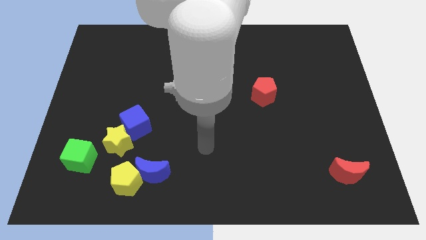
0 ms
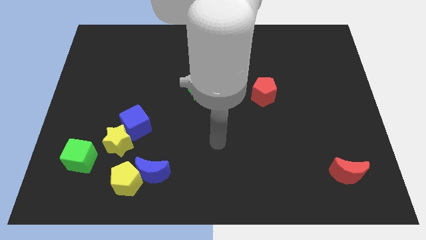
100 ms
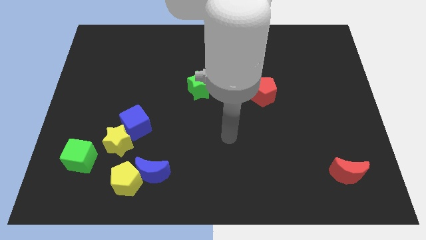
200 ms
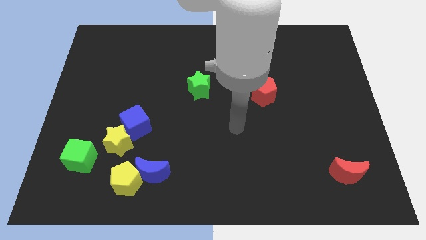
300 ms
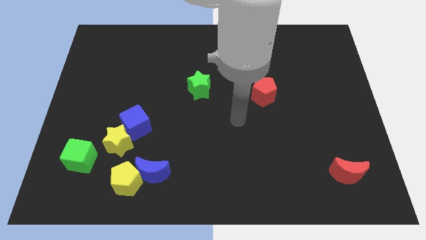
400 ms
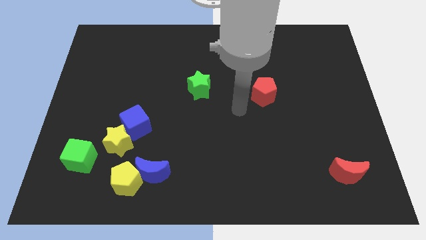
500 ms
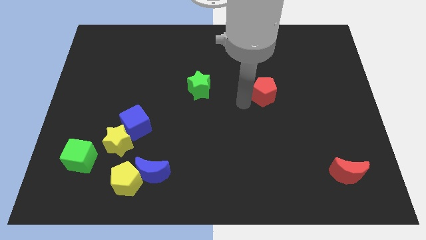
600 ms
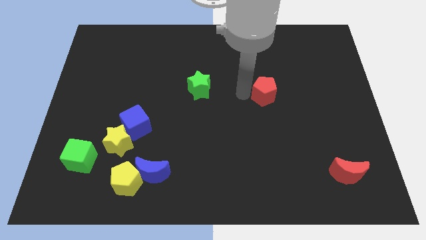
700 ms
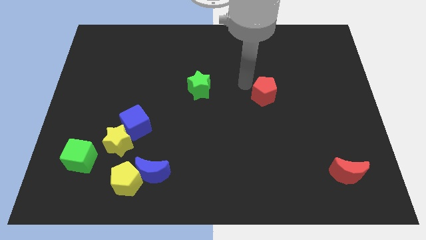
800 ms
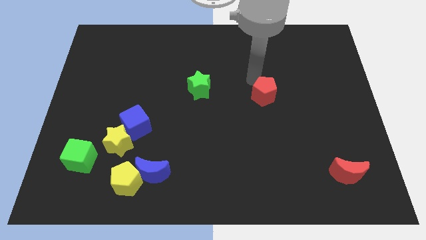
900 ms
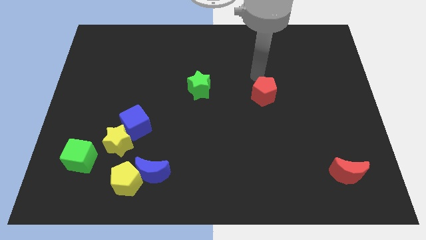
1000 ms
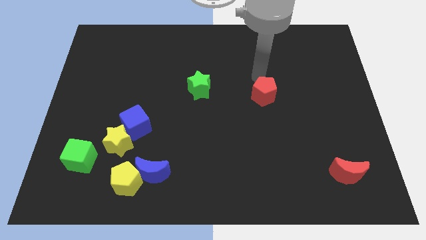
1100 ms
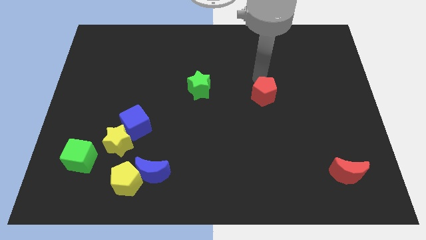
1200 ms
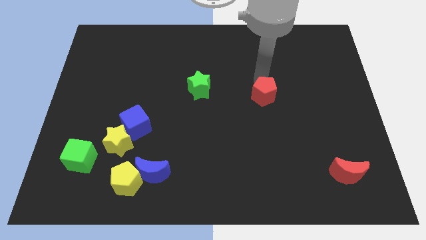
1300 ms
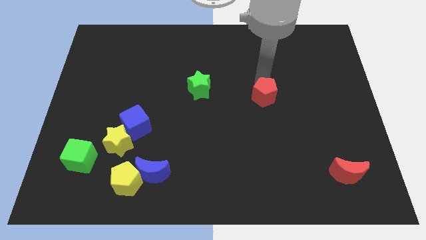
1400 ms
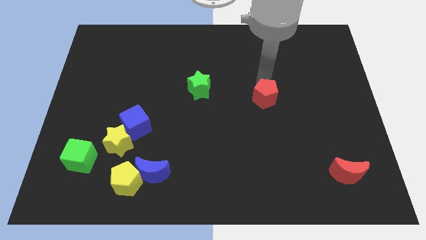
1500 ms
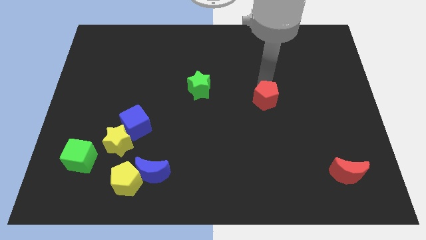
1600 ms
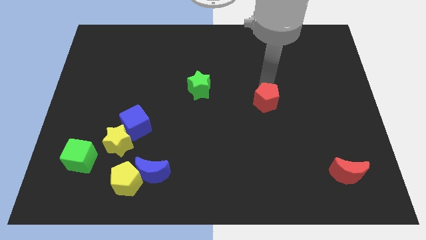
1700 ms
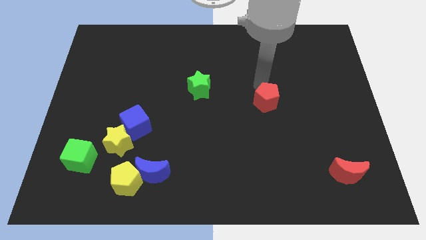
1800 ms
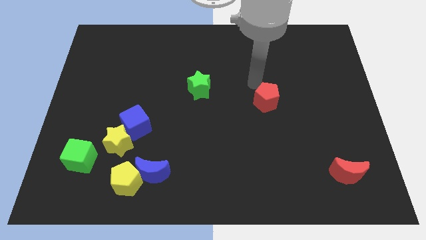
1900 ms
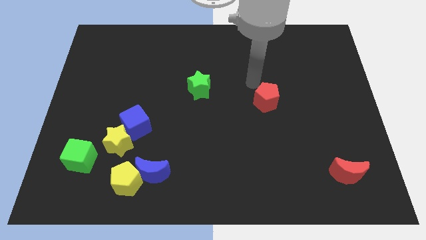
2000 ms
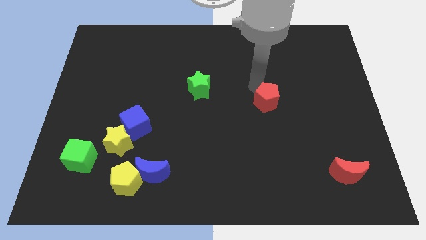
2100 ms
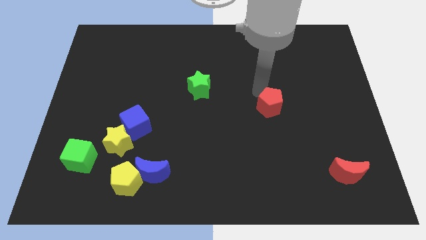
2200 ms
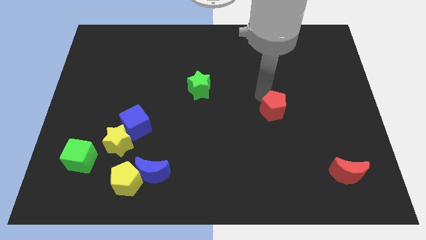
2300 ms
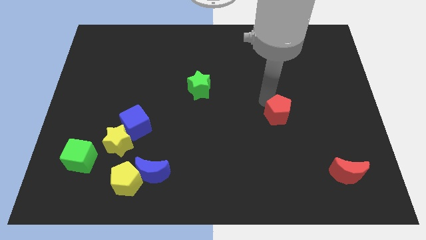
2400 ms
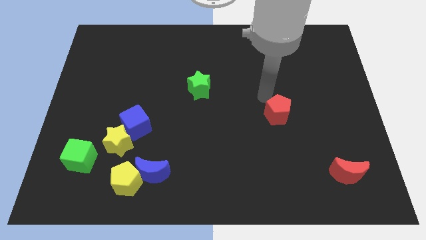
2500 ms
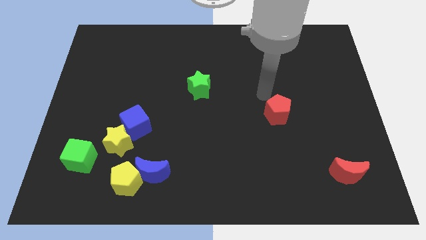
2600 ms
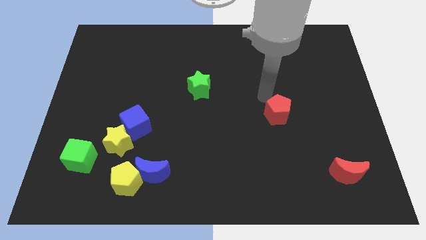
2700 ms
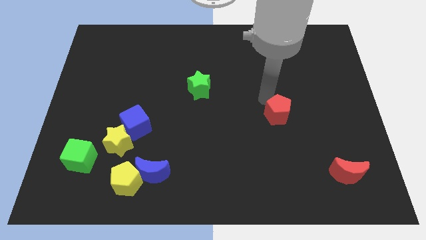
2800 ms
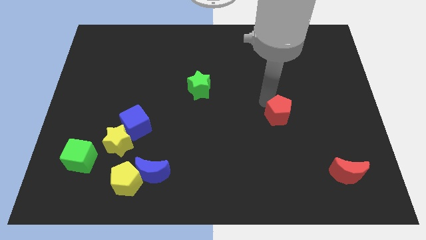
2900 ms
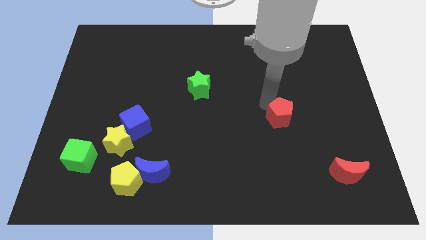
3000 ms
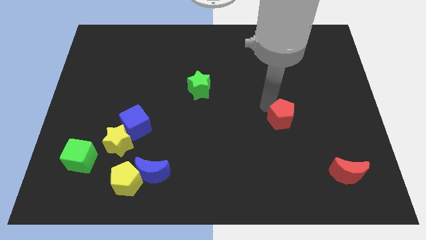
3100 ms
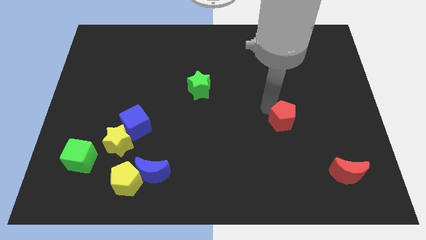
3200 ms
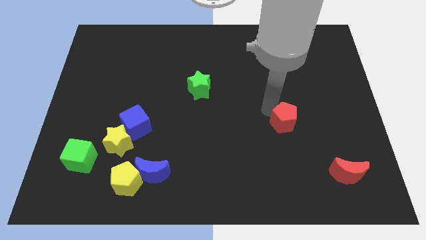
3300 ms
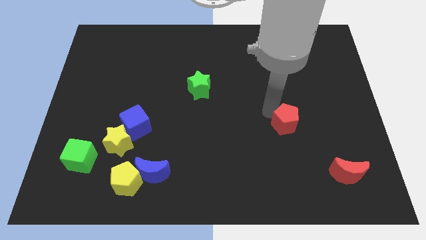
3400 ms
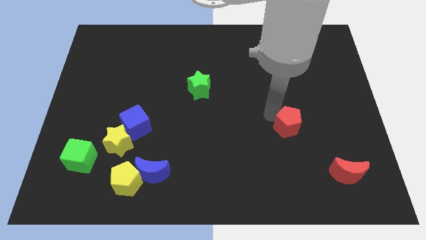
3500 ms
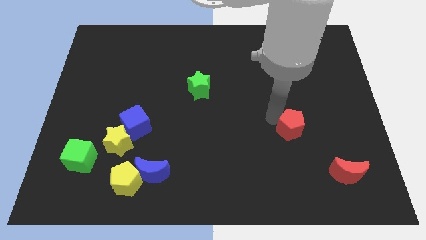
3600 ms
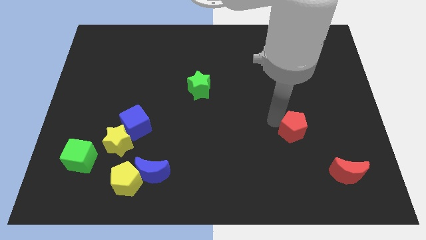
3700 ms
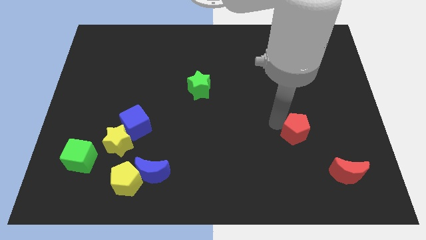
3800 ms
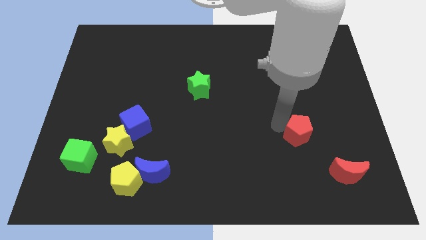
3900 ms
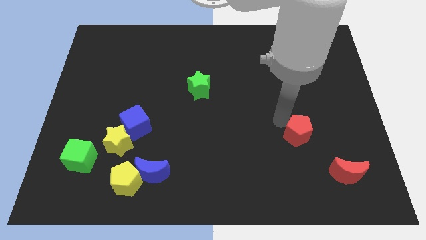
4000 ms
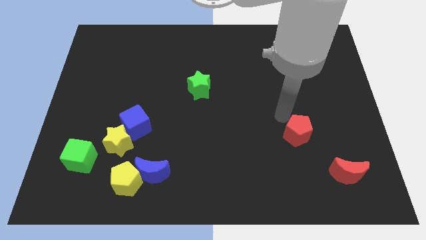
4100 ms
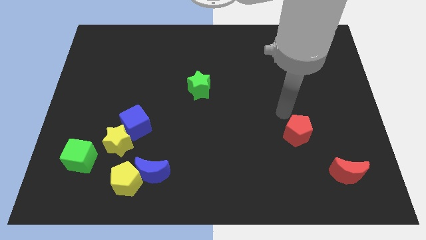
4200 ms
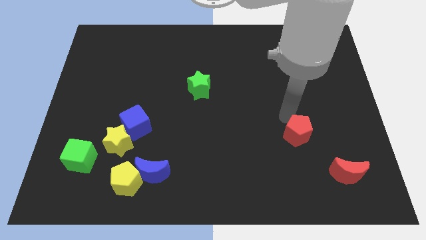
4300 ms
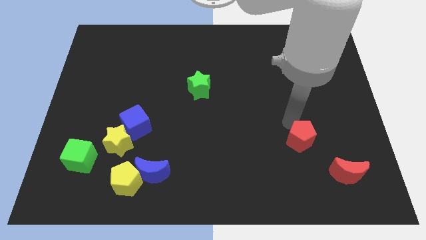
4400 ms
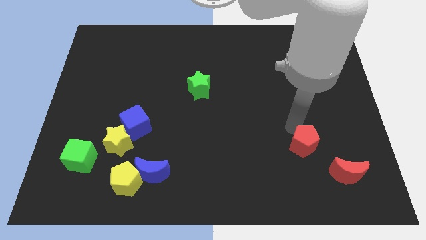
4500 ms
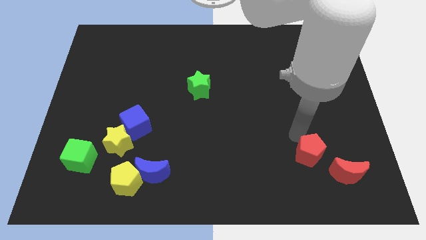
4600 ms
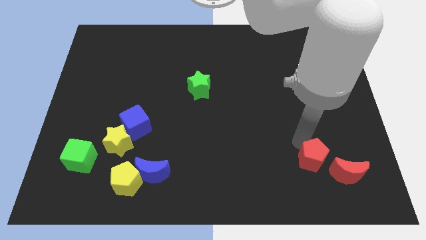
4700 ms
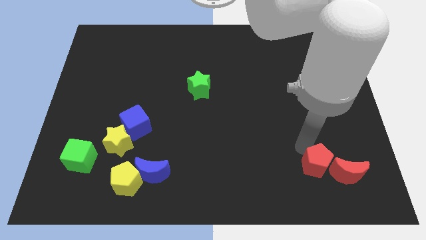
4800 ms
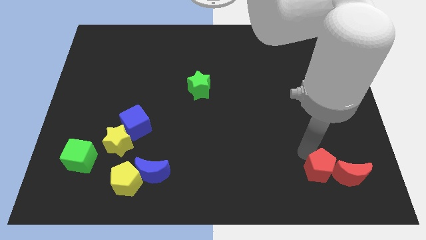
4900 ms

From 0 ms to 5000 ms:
slide the red pentagon close to the red moon

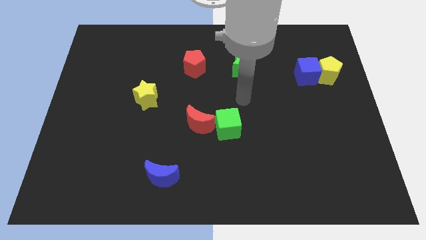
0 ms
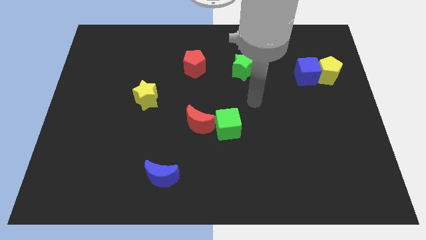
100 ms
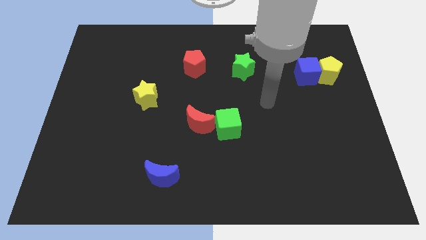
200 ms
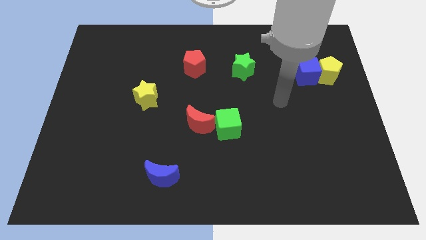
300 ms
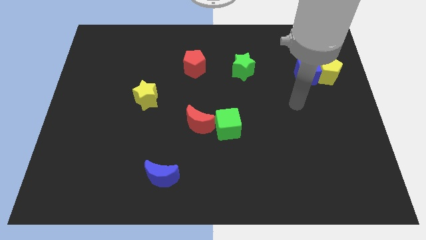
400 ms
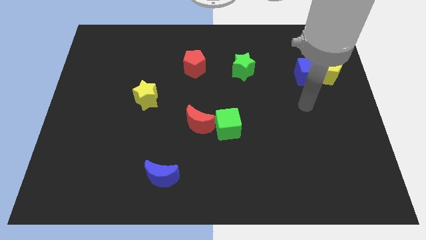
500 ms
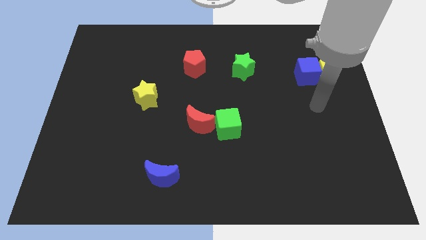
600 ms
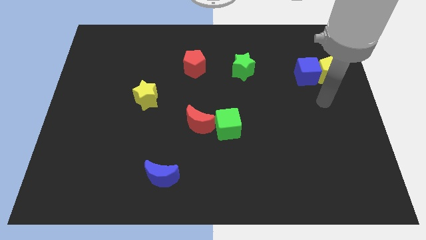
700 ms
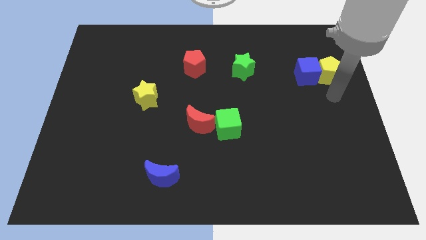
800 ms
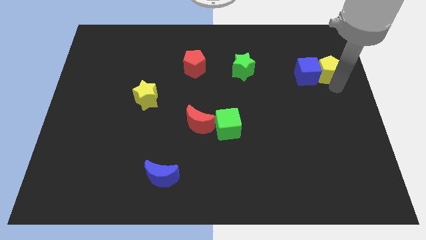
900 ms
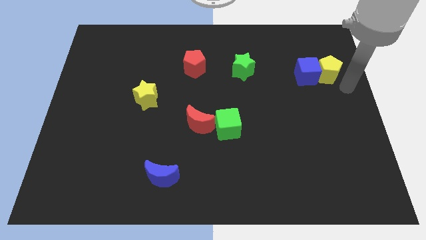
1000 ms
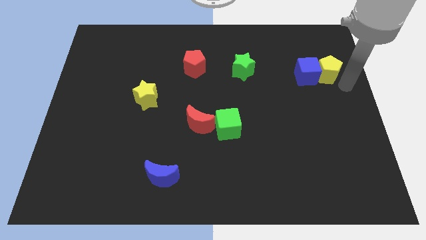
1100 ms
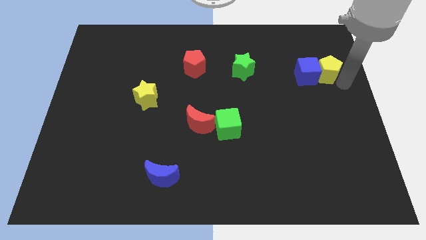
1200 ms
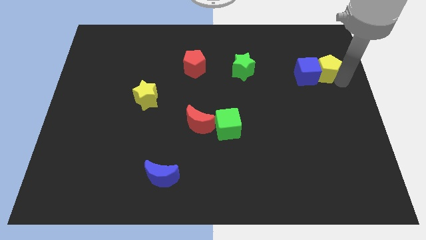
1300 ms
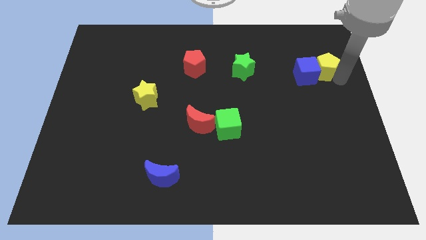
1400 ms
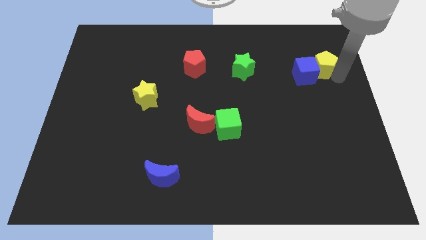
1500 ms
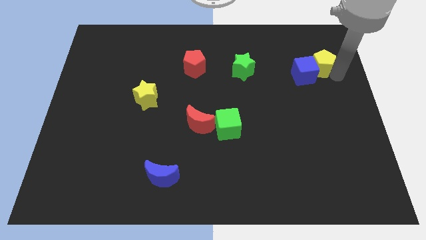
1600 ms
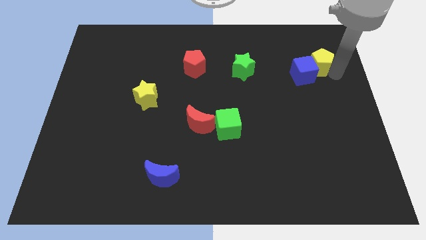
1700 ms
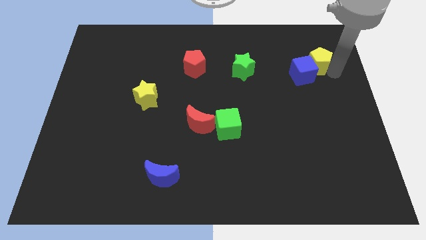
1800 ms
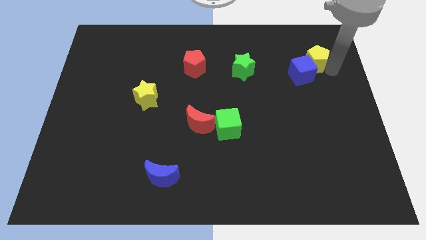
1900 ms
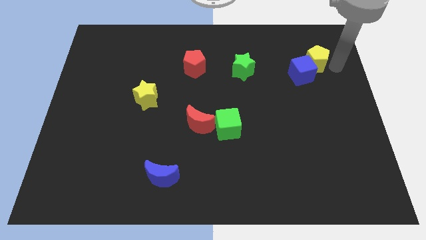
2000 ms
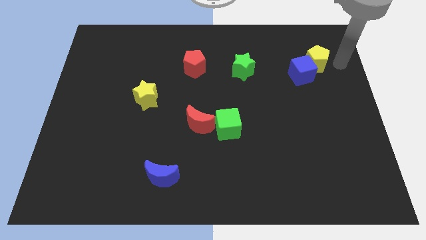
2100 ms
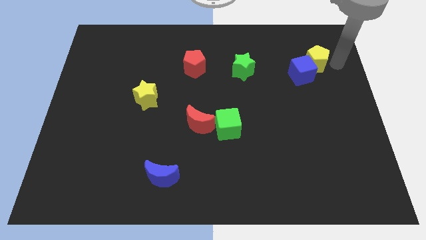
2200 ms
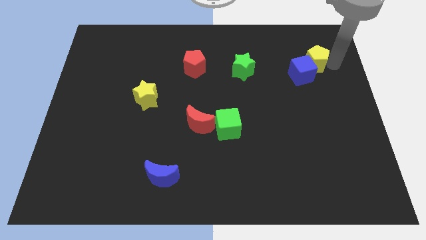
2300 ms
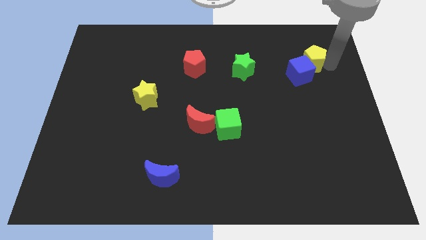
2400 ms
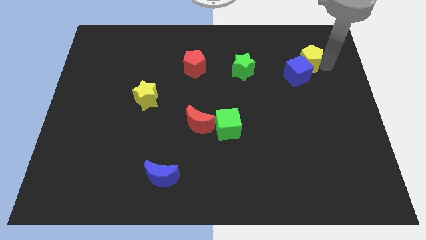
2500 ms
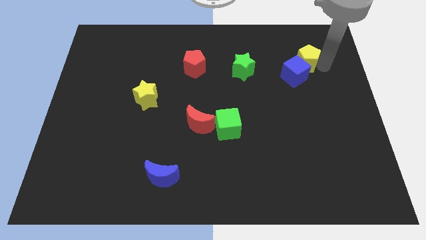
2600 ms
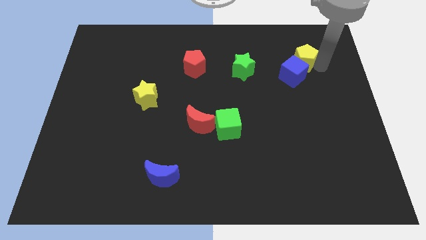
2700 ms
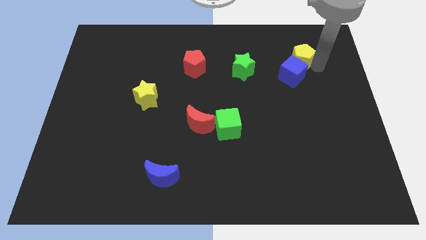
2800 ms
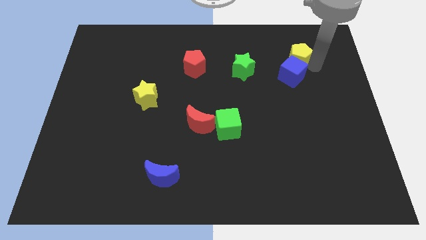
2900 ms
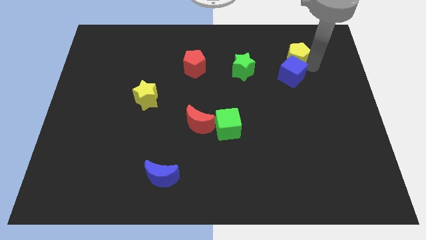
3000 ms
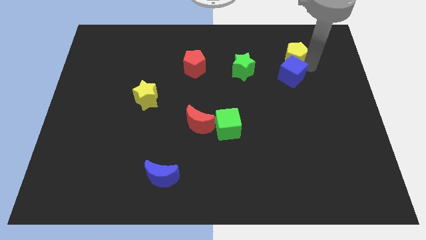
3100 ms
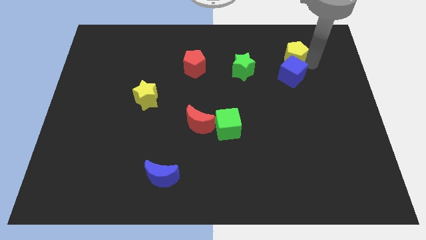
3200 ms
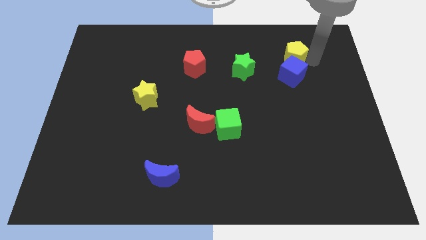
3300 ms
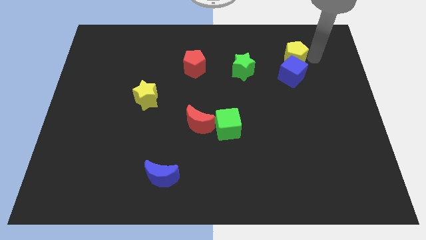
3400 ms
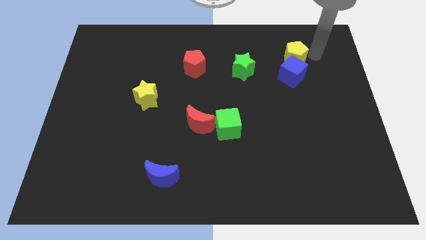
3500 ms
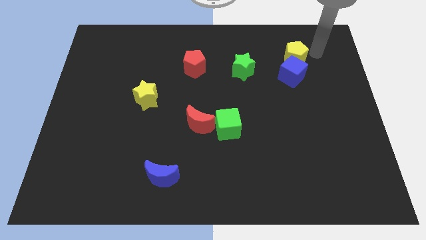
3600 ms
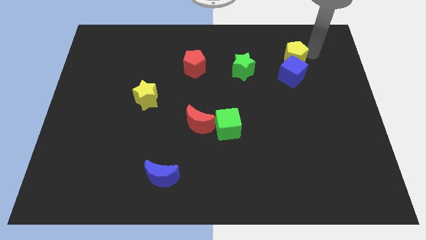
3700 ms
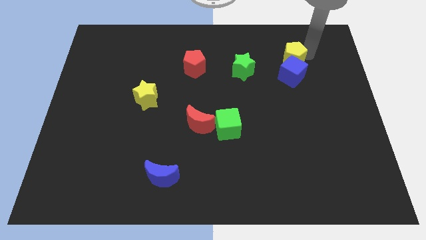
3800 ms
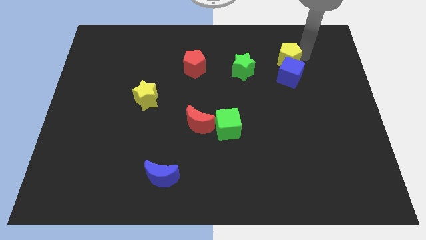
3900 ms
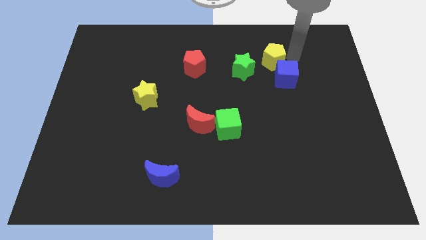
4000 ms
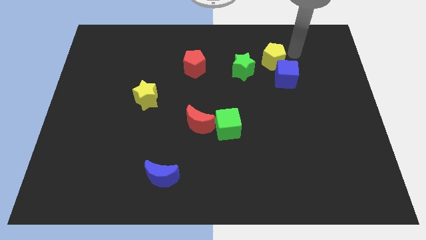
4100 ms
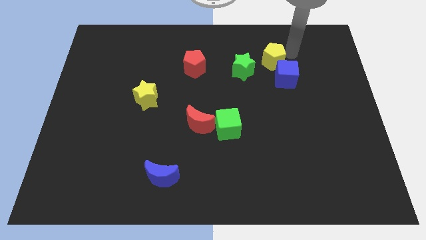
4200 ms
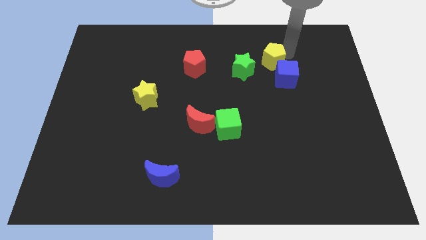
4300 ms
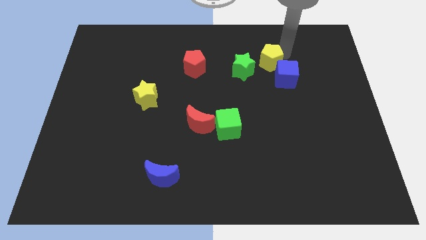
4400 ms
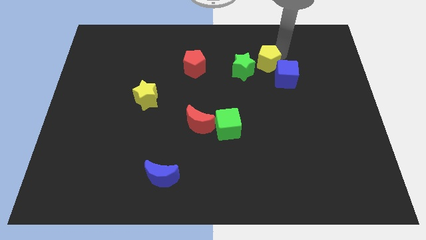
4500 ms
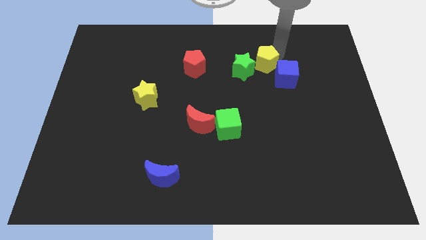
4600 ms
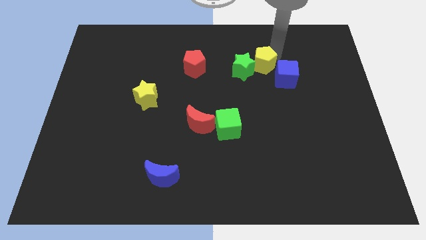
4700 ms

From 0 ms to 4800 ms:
move the yellow pentagon to the green star
